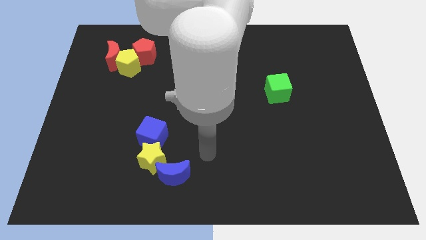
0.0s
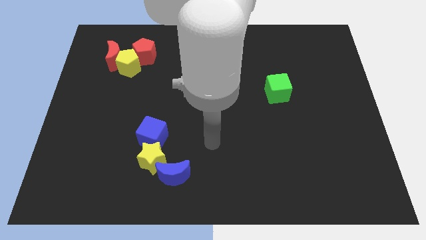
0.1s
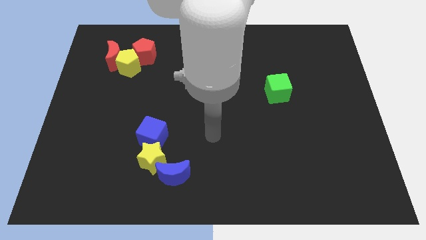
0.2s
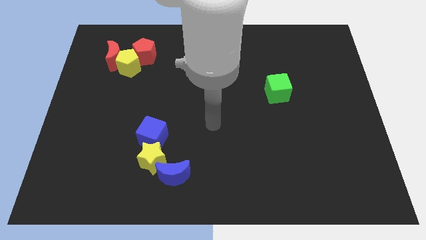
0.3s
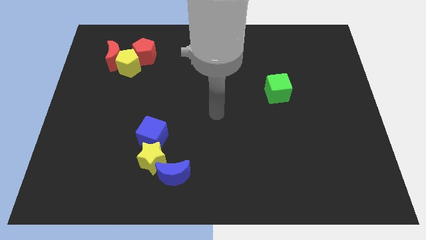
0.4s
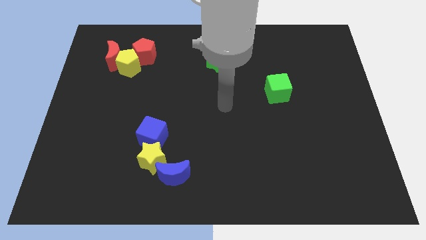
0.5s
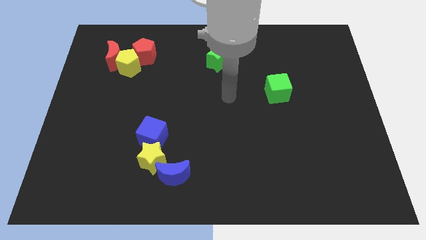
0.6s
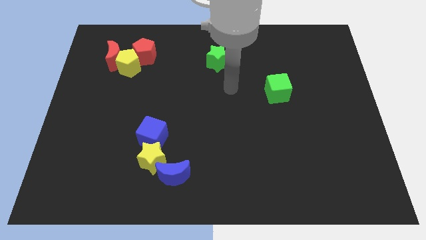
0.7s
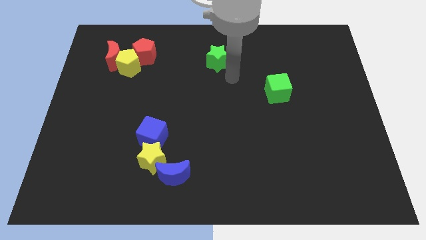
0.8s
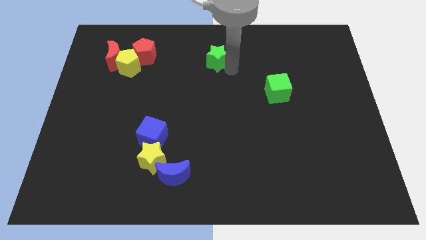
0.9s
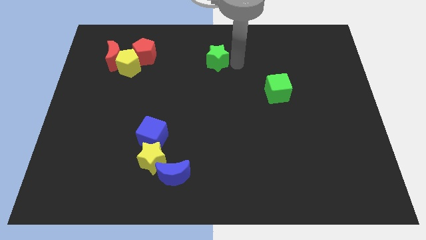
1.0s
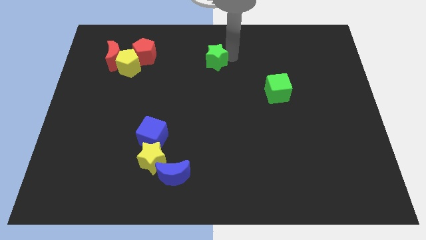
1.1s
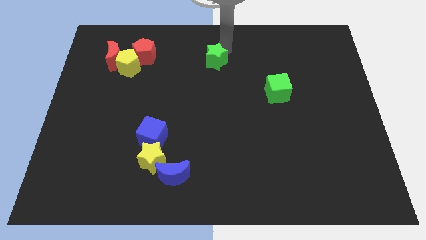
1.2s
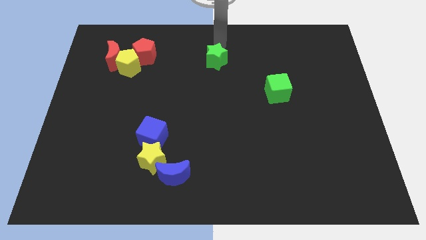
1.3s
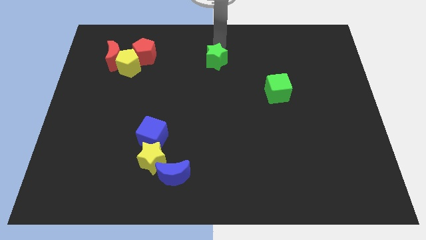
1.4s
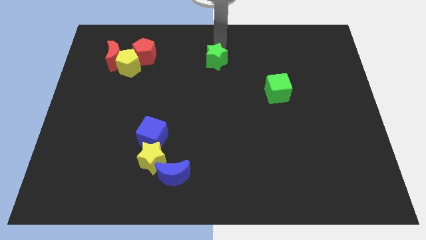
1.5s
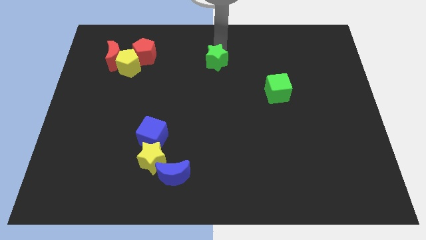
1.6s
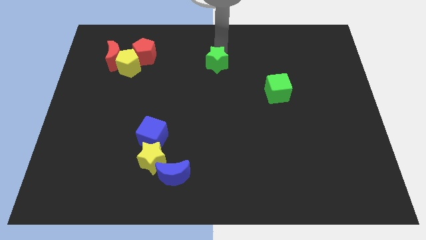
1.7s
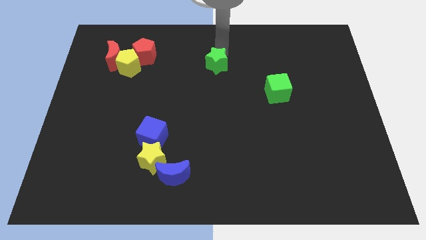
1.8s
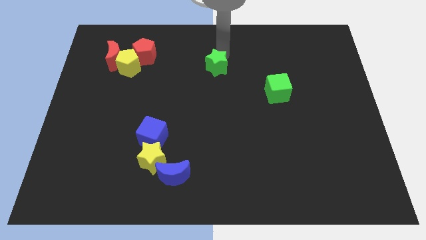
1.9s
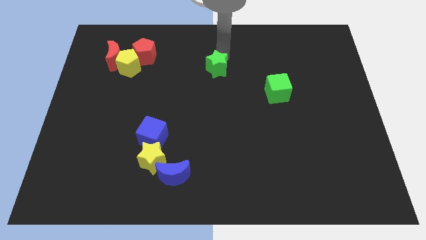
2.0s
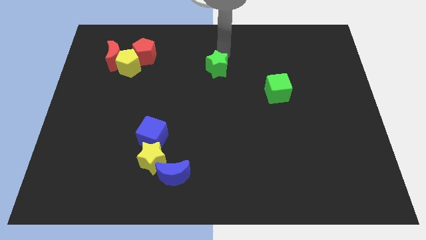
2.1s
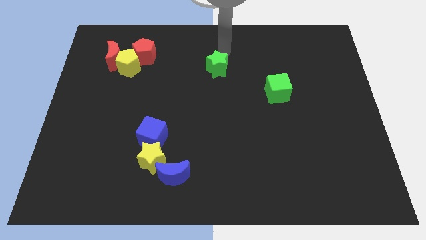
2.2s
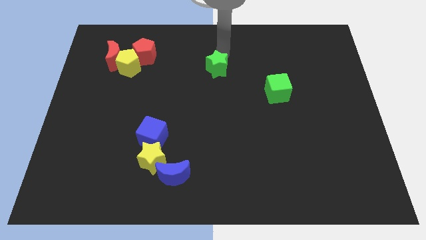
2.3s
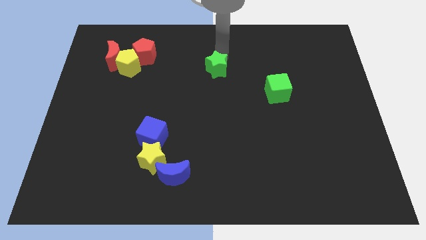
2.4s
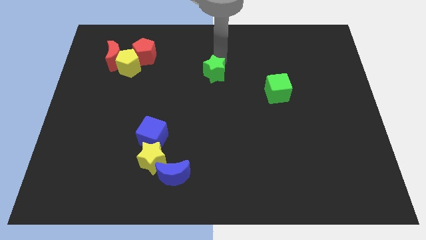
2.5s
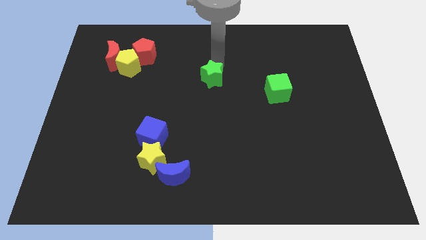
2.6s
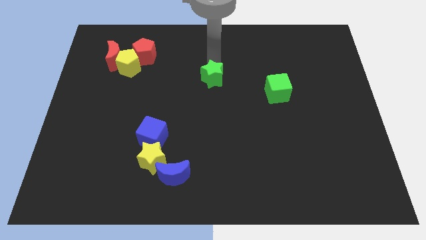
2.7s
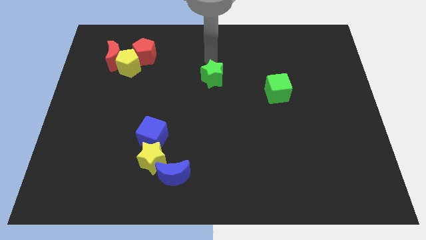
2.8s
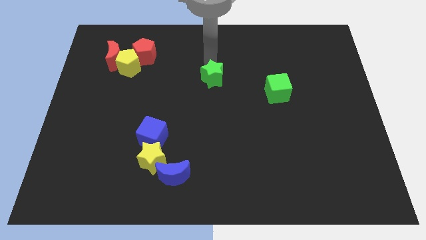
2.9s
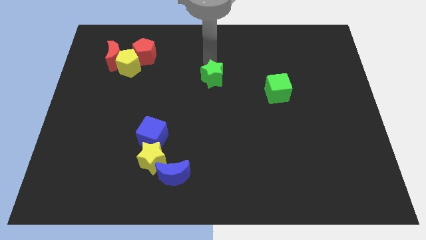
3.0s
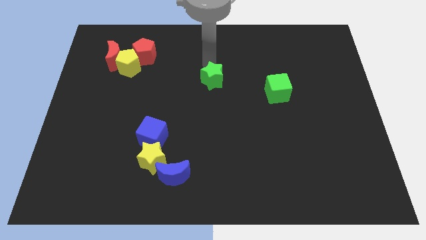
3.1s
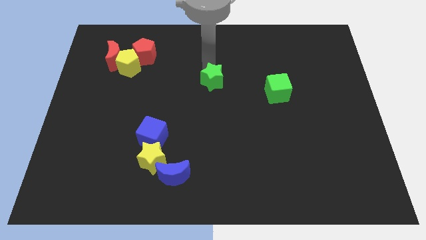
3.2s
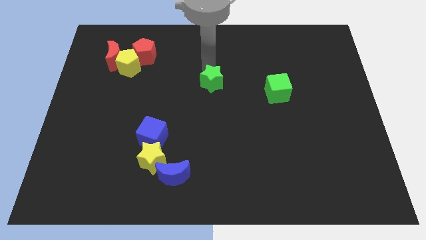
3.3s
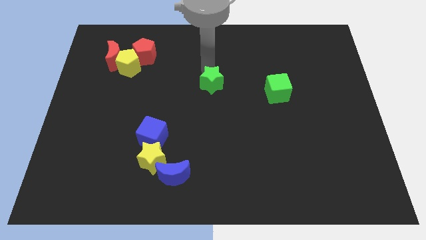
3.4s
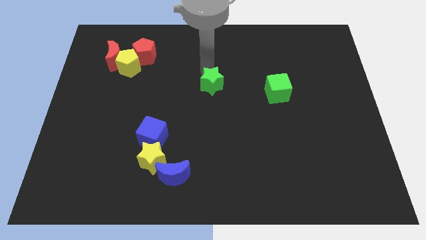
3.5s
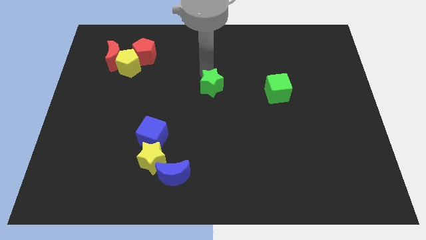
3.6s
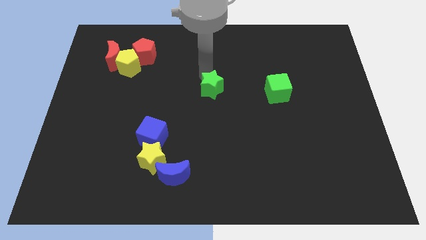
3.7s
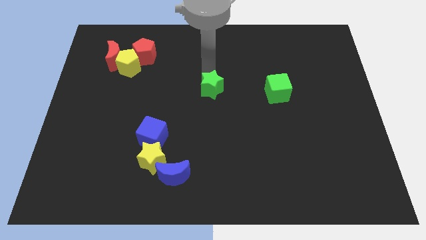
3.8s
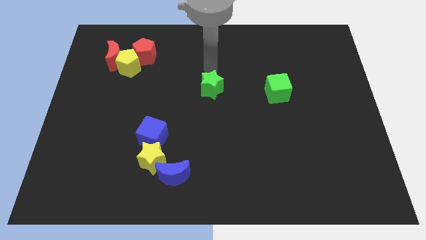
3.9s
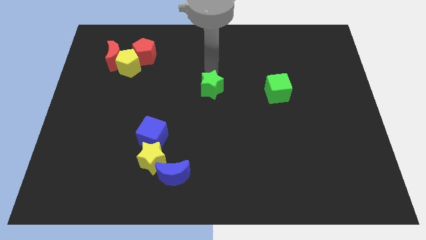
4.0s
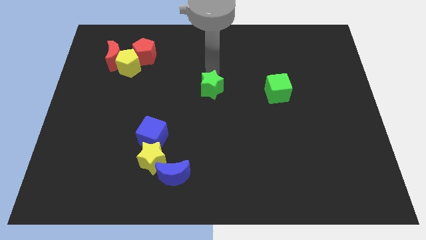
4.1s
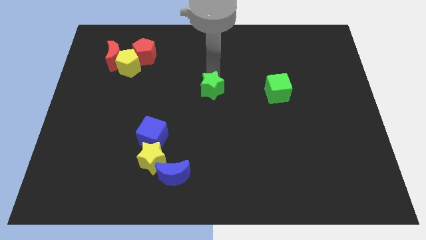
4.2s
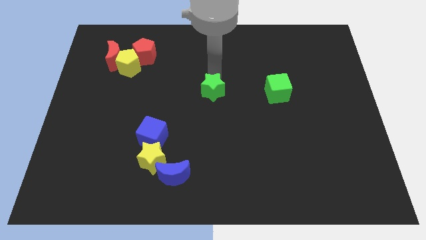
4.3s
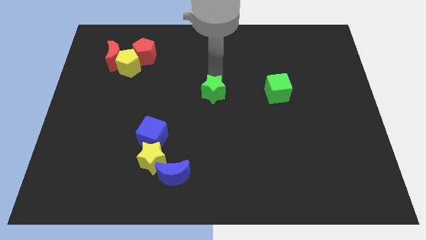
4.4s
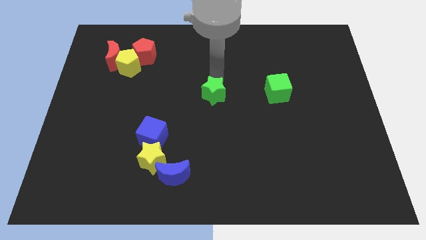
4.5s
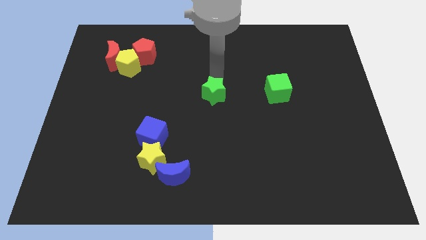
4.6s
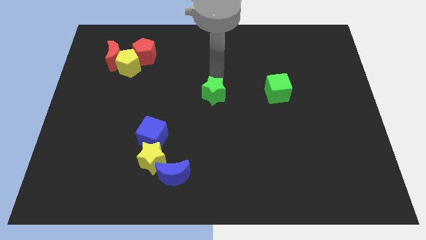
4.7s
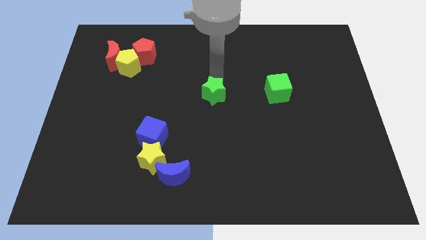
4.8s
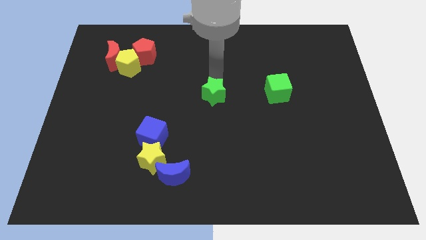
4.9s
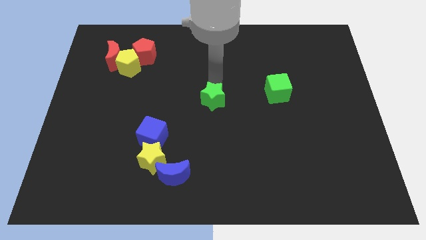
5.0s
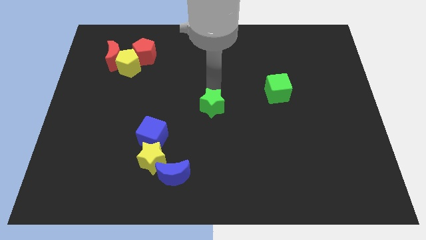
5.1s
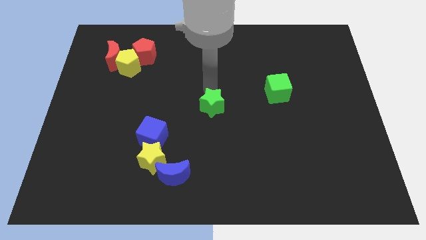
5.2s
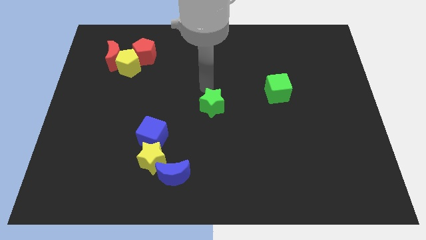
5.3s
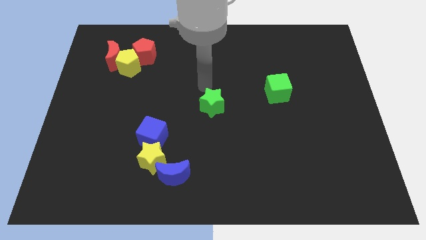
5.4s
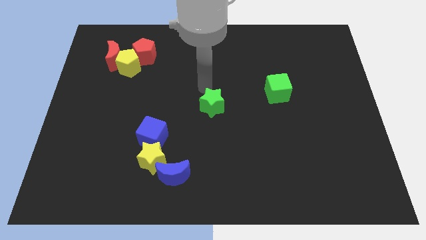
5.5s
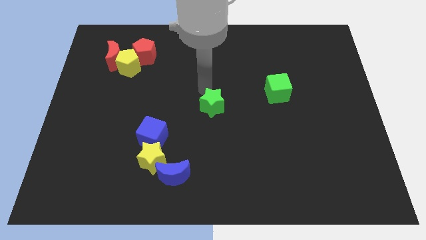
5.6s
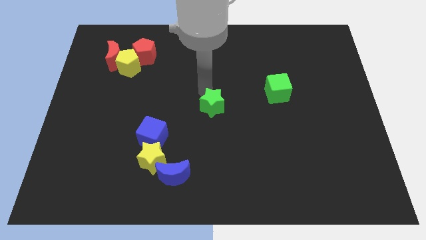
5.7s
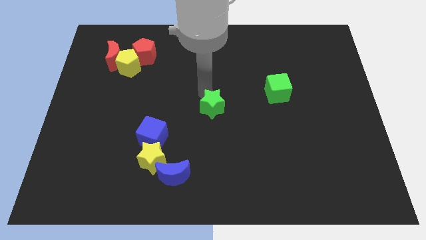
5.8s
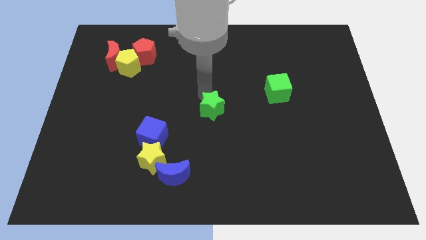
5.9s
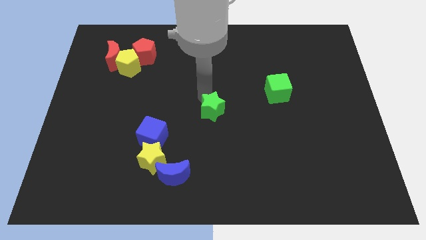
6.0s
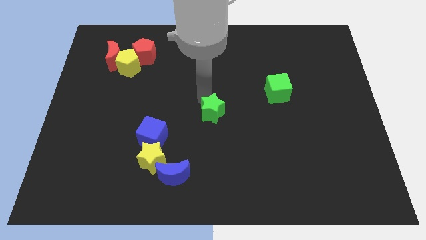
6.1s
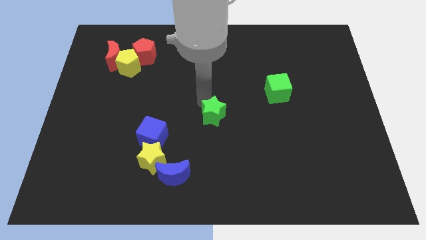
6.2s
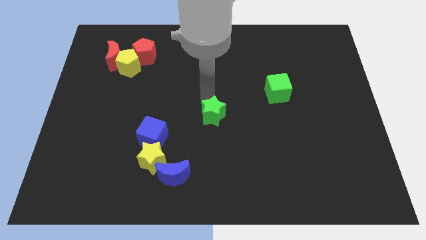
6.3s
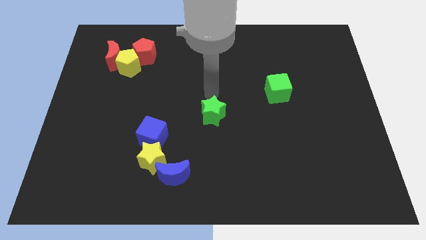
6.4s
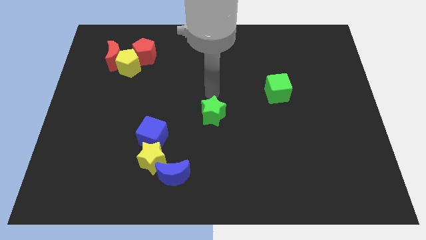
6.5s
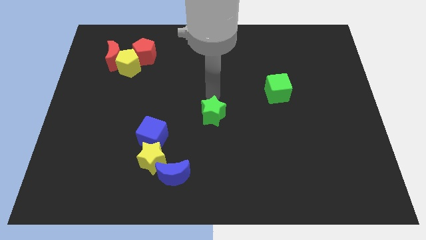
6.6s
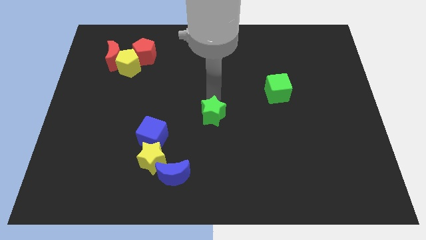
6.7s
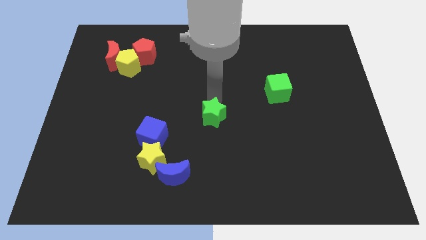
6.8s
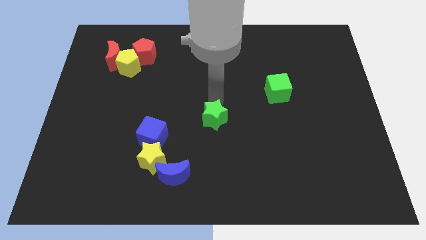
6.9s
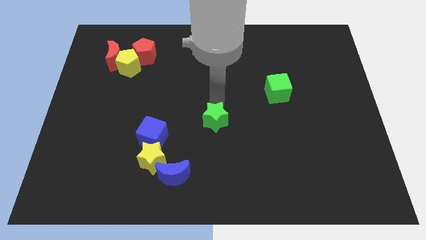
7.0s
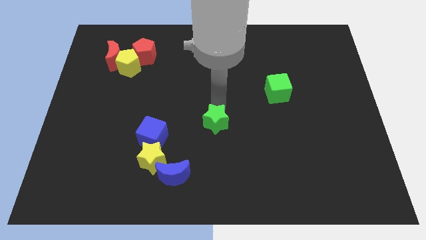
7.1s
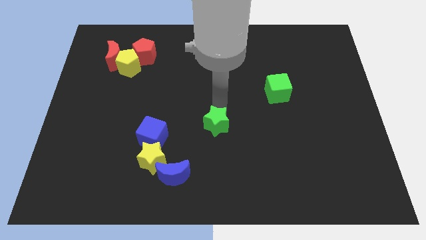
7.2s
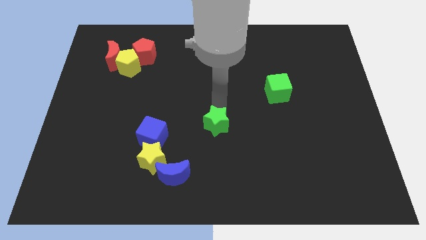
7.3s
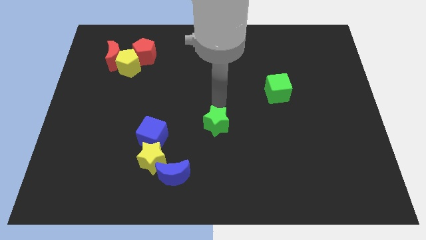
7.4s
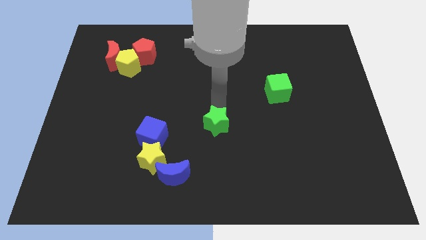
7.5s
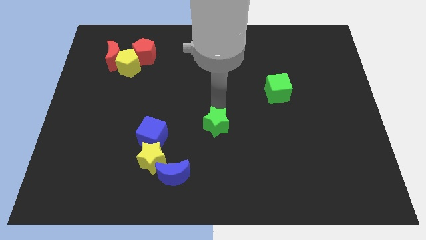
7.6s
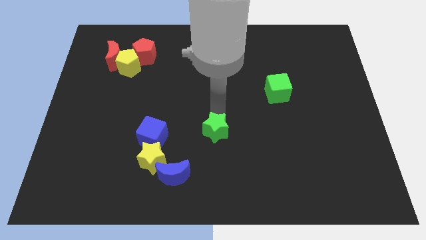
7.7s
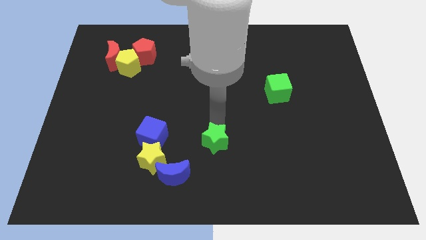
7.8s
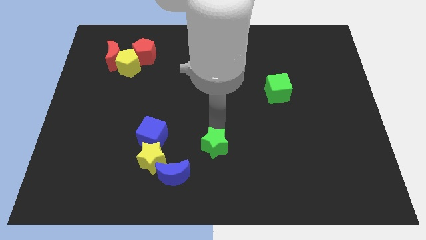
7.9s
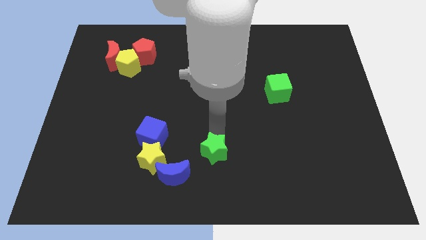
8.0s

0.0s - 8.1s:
push the green star to the bottom side
